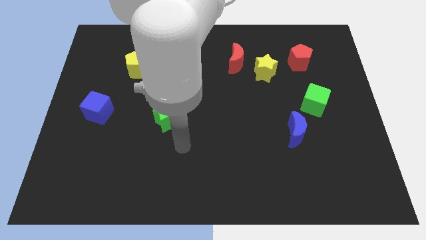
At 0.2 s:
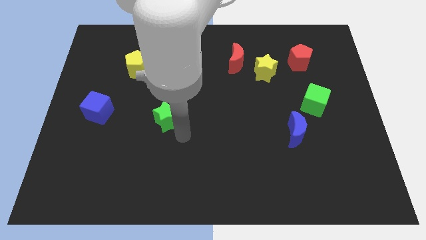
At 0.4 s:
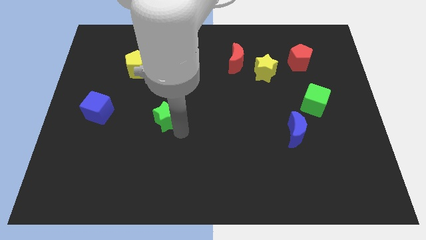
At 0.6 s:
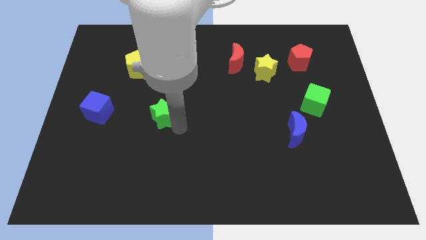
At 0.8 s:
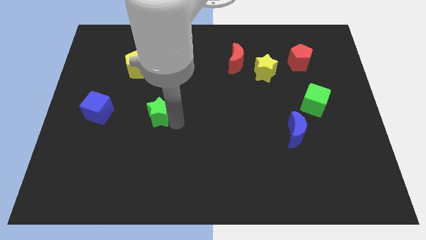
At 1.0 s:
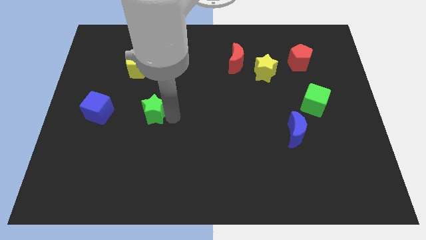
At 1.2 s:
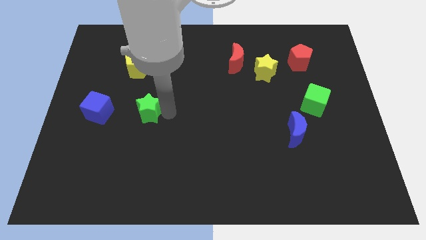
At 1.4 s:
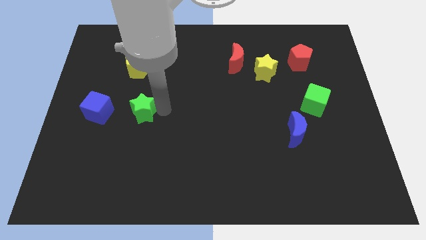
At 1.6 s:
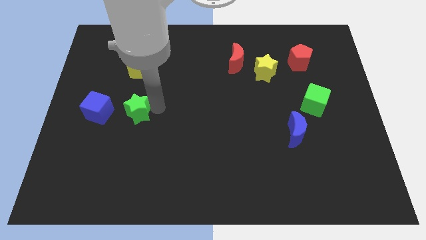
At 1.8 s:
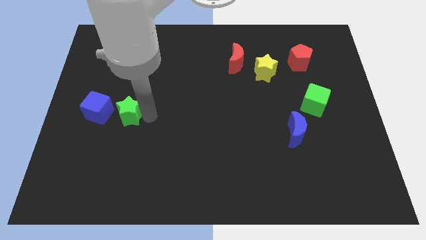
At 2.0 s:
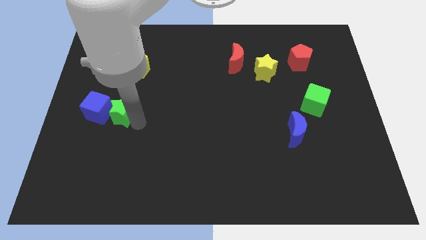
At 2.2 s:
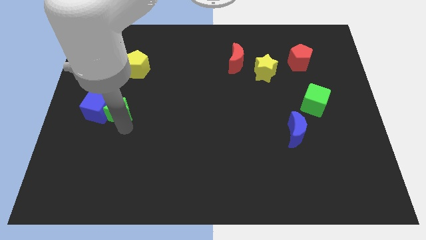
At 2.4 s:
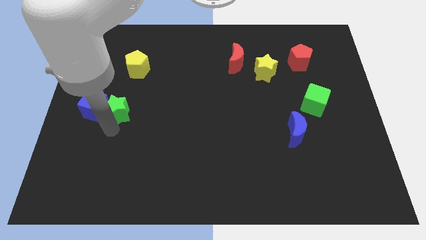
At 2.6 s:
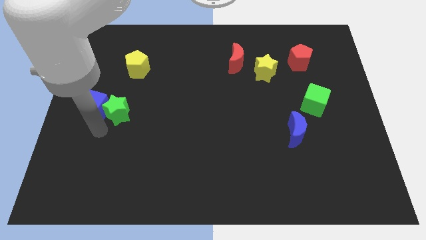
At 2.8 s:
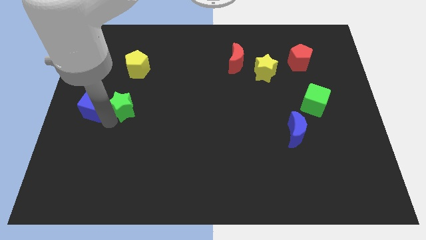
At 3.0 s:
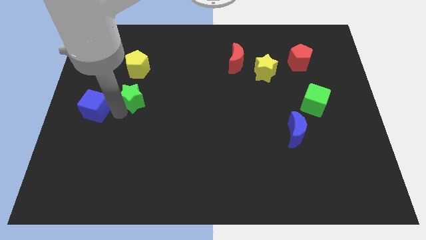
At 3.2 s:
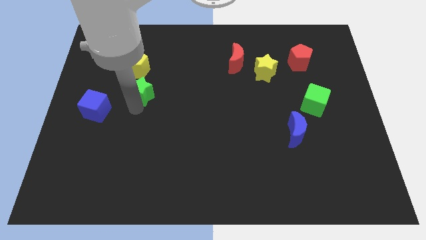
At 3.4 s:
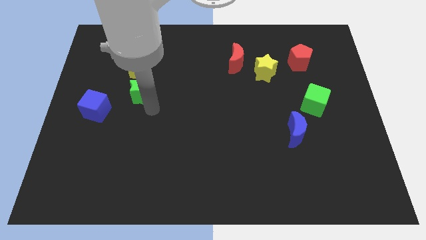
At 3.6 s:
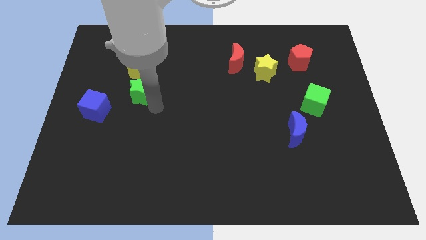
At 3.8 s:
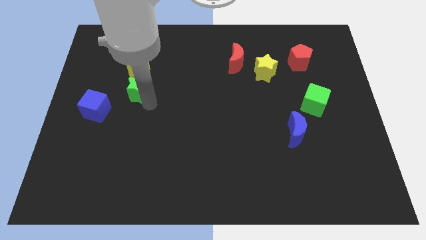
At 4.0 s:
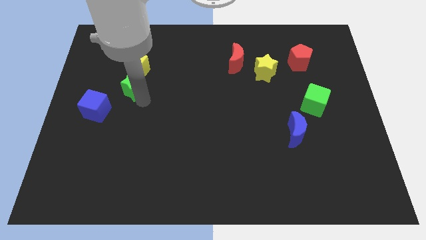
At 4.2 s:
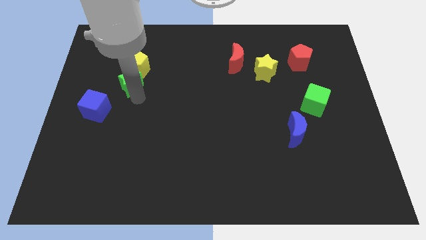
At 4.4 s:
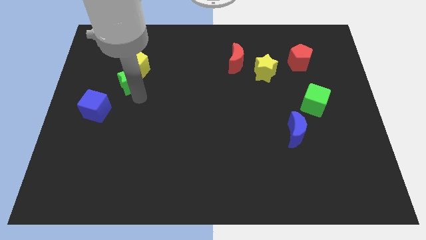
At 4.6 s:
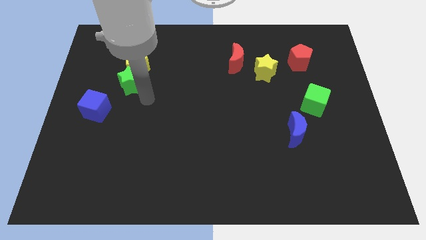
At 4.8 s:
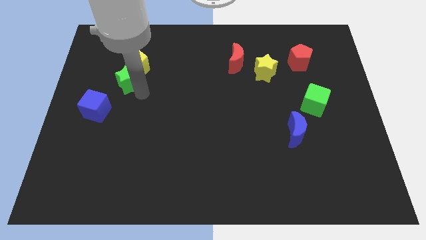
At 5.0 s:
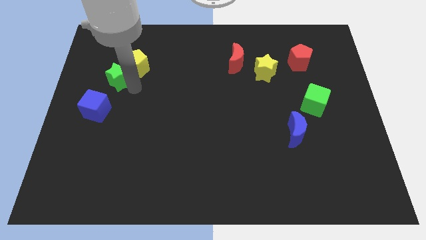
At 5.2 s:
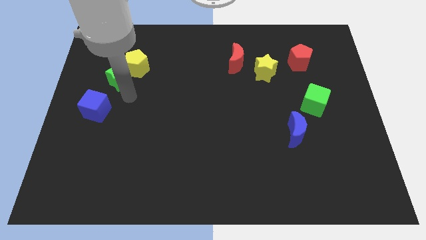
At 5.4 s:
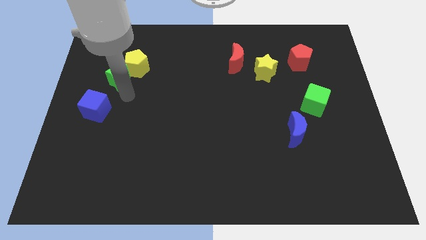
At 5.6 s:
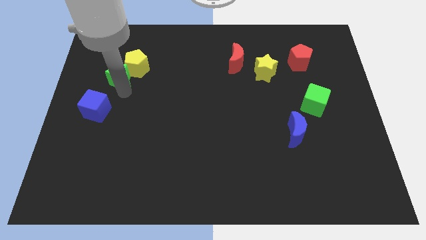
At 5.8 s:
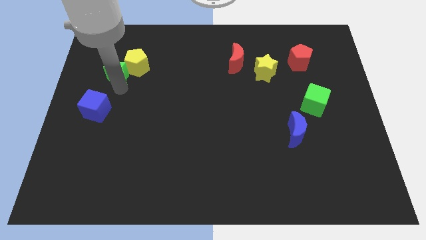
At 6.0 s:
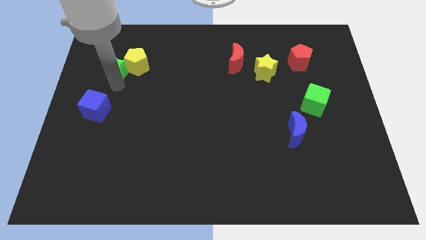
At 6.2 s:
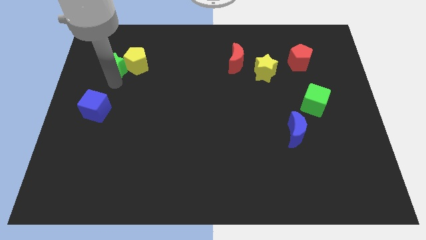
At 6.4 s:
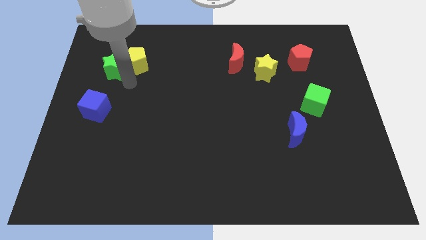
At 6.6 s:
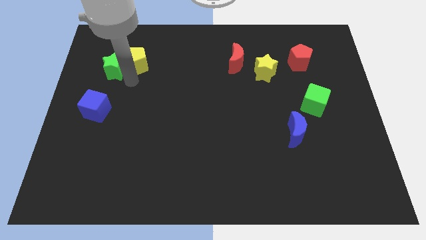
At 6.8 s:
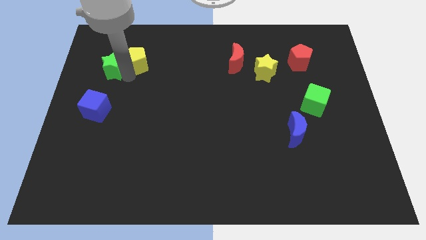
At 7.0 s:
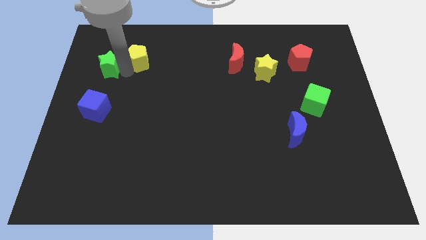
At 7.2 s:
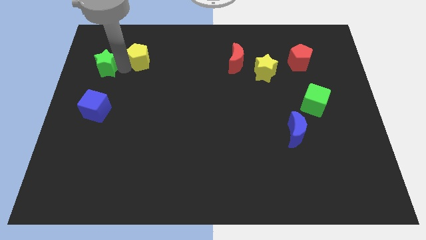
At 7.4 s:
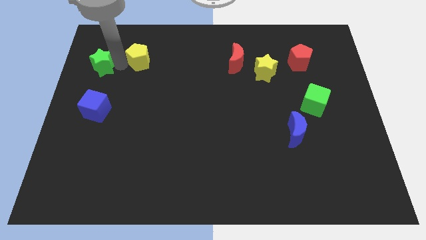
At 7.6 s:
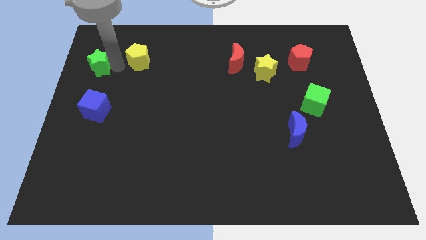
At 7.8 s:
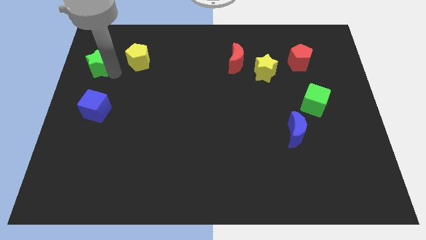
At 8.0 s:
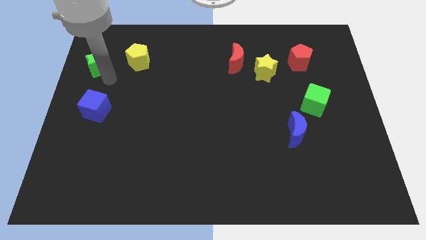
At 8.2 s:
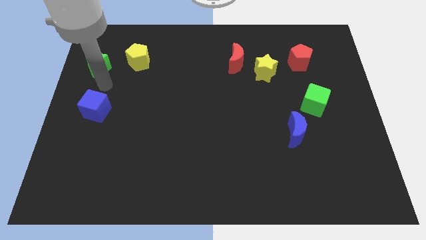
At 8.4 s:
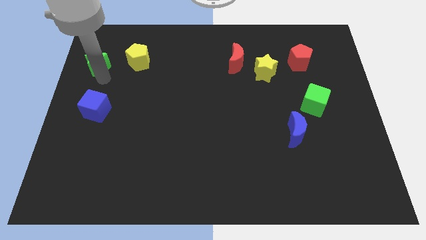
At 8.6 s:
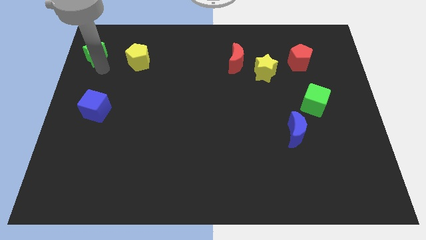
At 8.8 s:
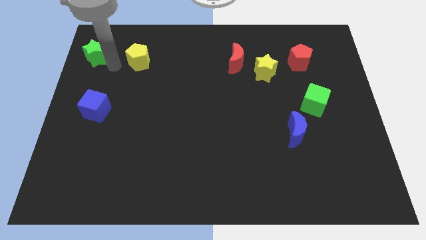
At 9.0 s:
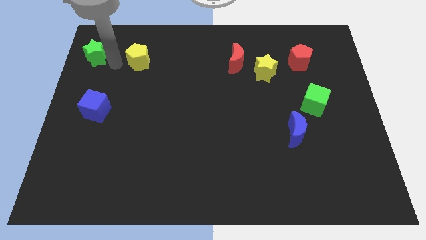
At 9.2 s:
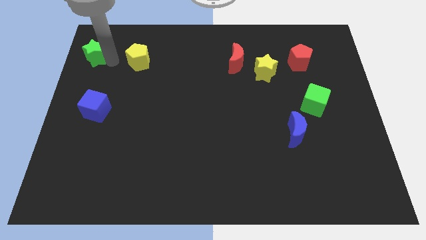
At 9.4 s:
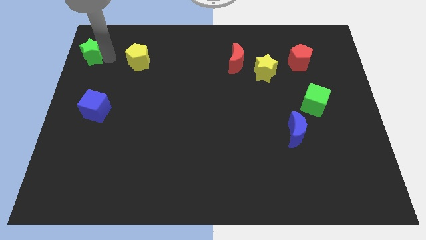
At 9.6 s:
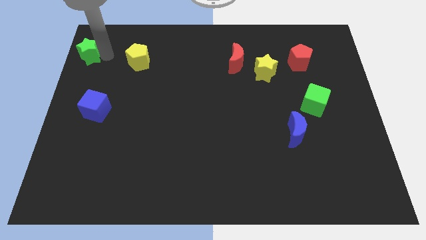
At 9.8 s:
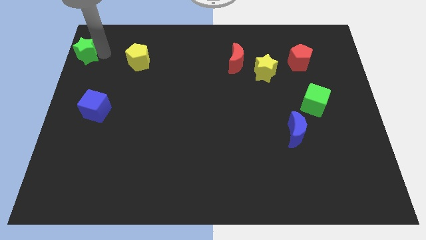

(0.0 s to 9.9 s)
push the green star to the upper left corner
